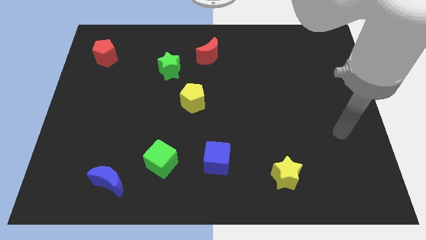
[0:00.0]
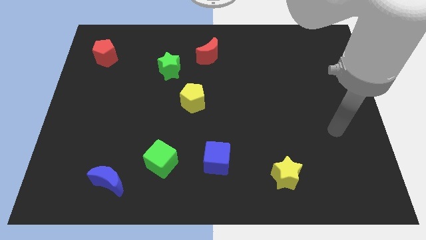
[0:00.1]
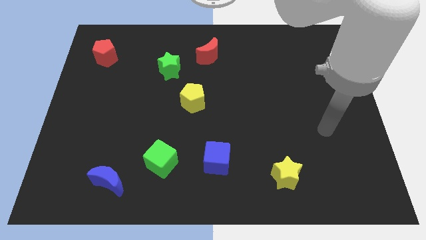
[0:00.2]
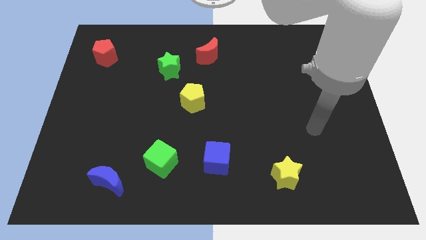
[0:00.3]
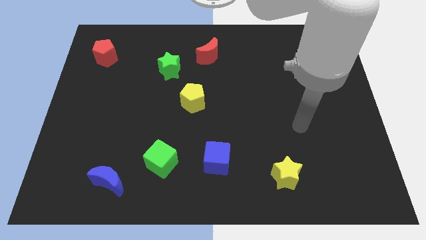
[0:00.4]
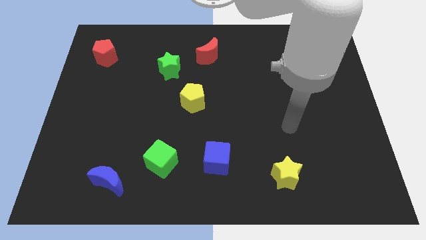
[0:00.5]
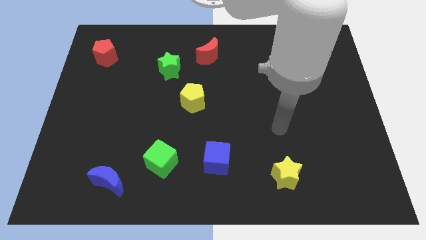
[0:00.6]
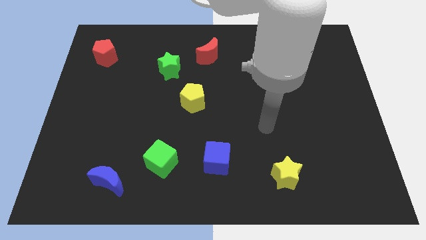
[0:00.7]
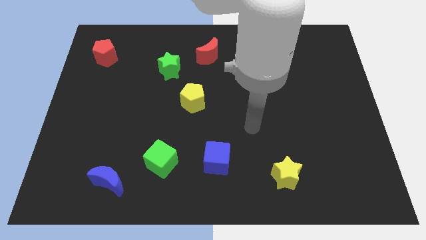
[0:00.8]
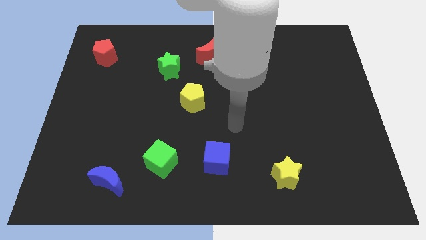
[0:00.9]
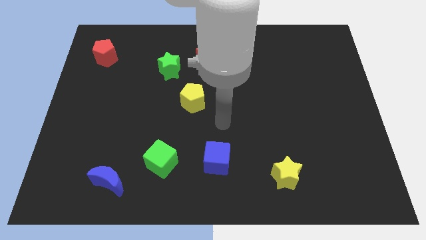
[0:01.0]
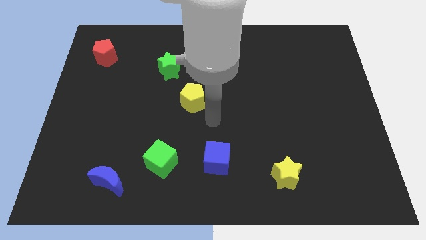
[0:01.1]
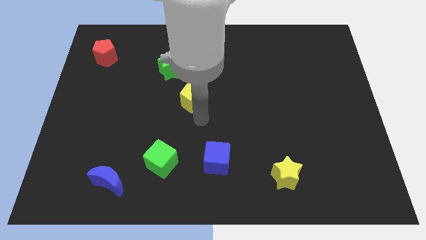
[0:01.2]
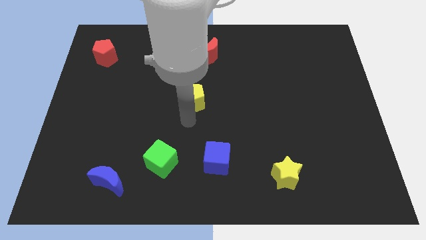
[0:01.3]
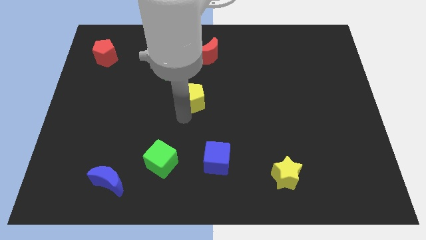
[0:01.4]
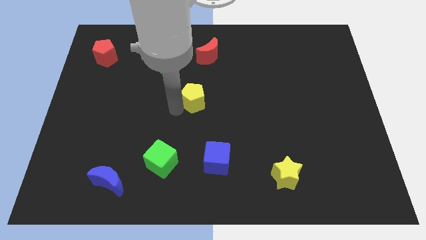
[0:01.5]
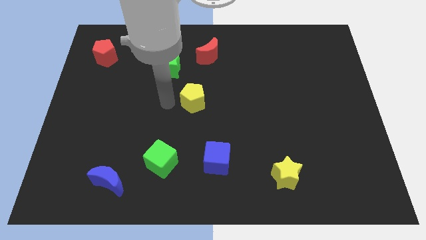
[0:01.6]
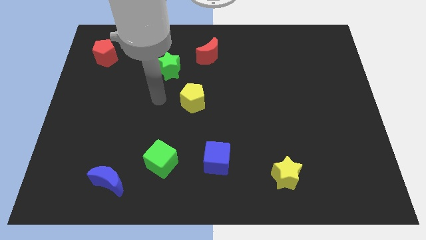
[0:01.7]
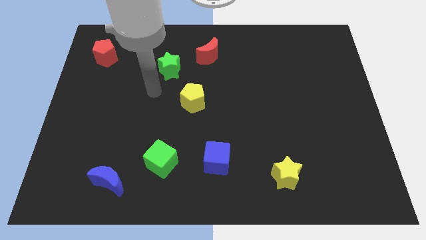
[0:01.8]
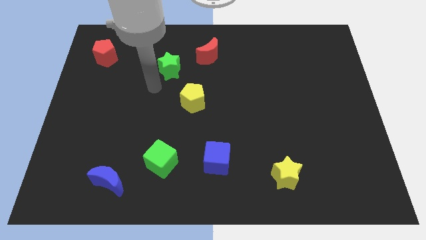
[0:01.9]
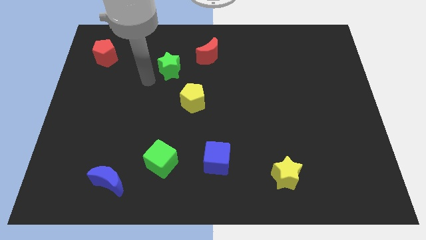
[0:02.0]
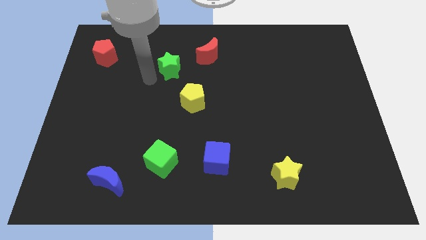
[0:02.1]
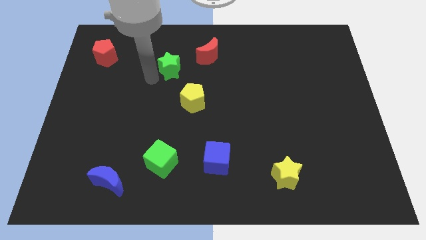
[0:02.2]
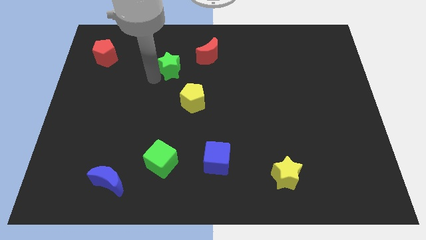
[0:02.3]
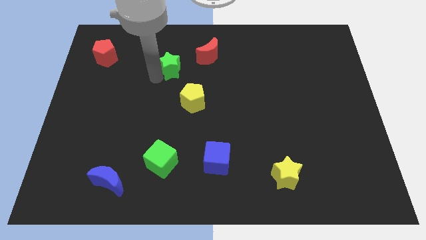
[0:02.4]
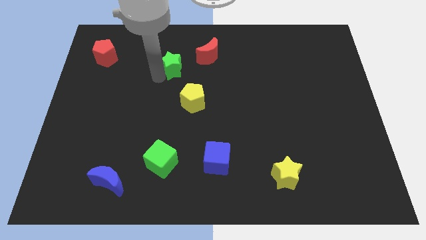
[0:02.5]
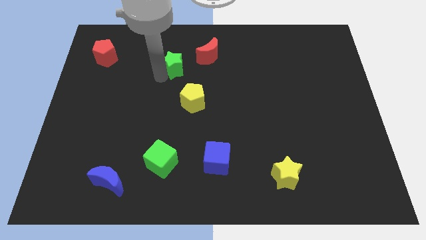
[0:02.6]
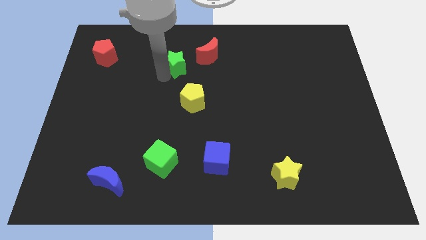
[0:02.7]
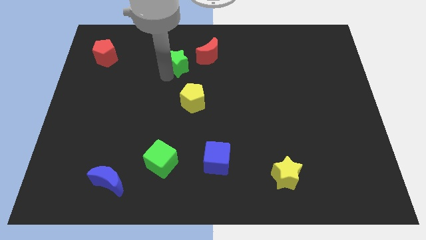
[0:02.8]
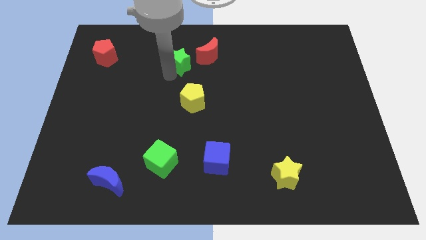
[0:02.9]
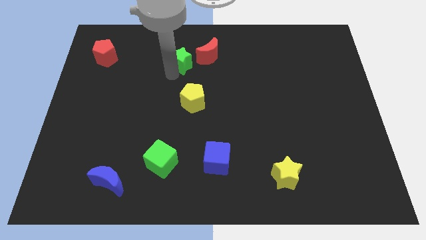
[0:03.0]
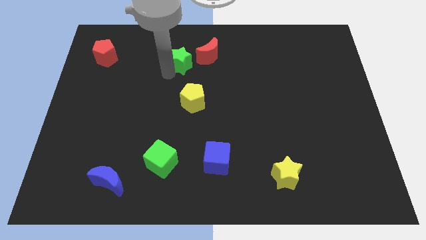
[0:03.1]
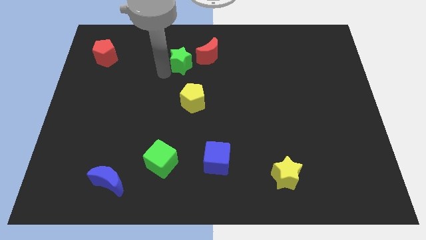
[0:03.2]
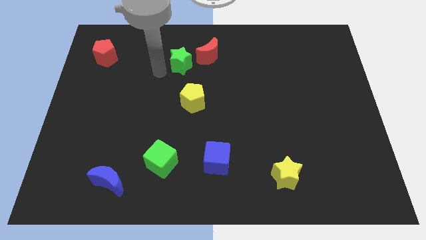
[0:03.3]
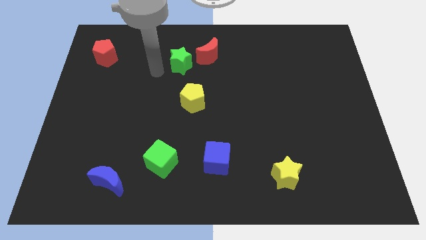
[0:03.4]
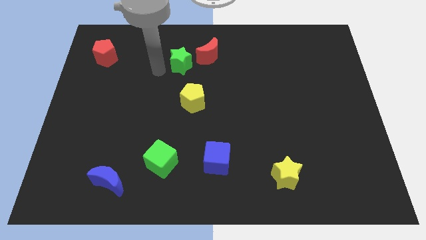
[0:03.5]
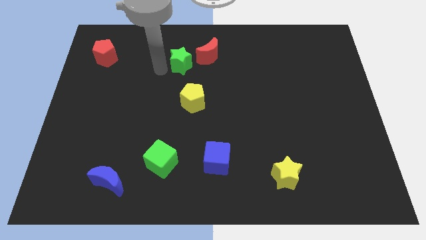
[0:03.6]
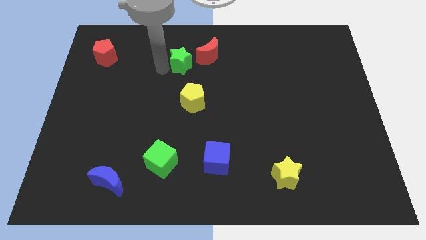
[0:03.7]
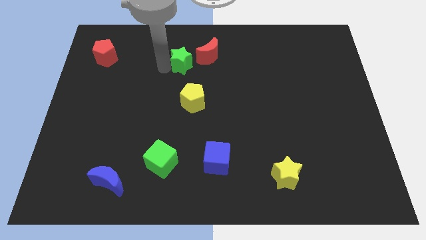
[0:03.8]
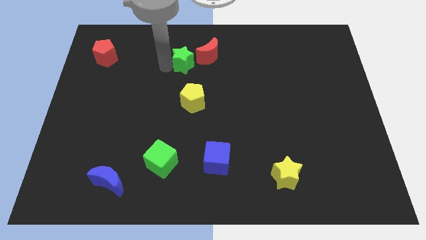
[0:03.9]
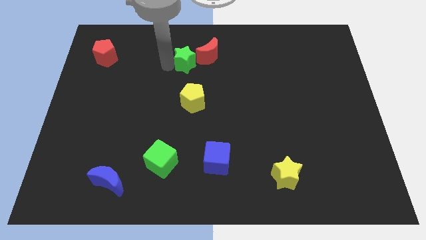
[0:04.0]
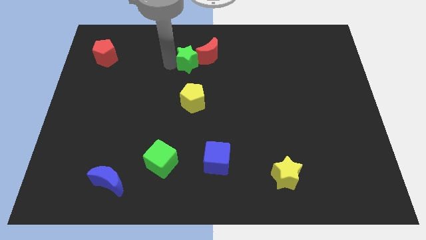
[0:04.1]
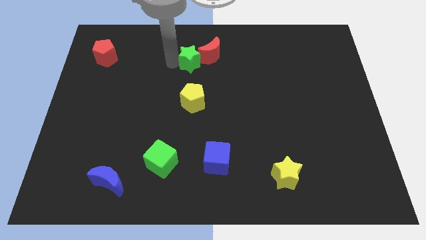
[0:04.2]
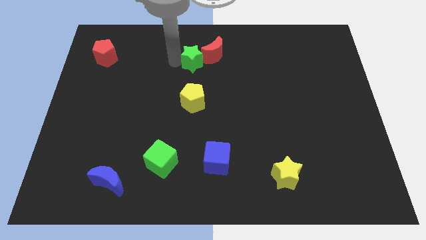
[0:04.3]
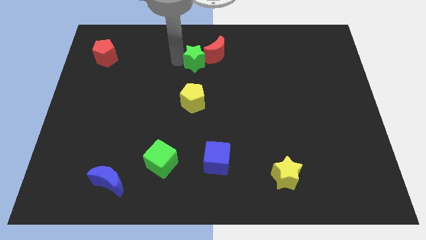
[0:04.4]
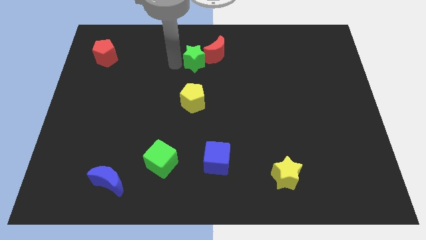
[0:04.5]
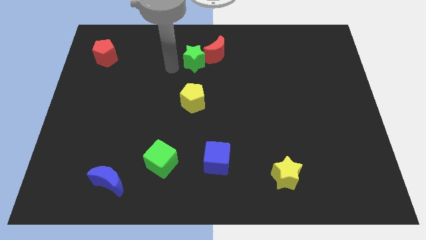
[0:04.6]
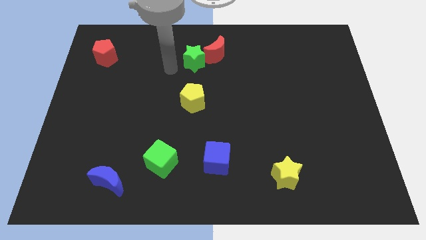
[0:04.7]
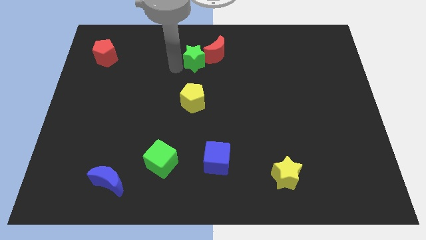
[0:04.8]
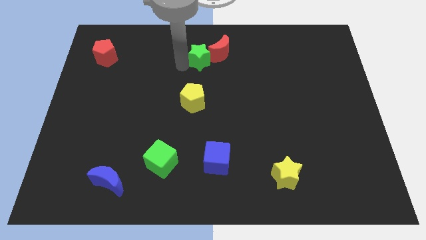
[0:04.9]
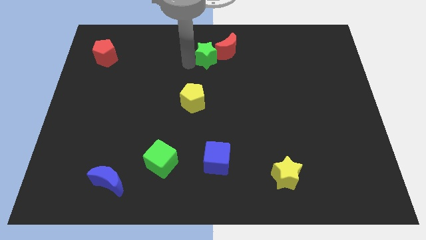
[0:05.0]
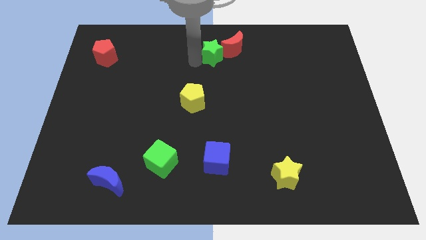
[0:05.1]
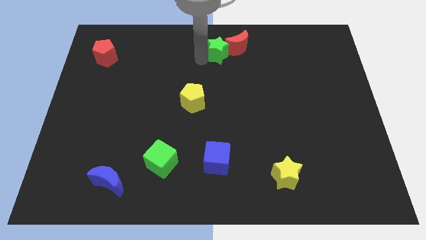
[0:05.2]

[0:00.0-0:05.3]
put the green star next to the red moon

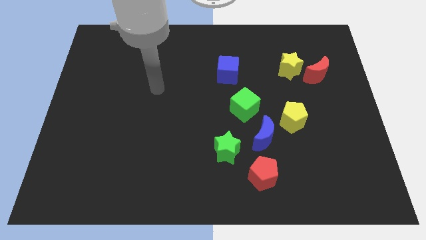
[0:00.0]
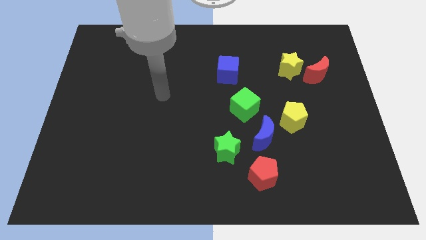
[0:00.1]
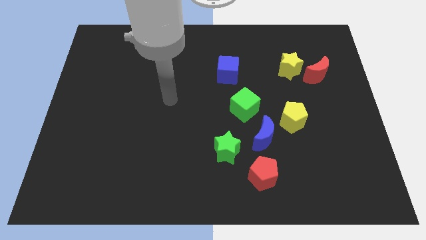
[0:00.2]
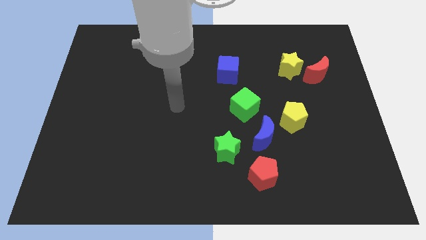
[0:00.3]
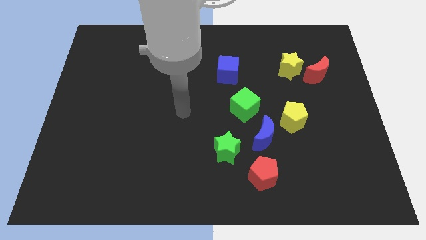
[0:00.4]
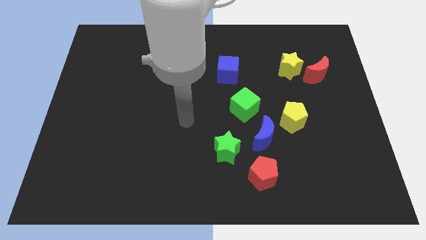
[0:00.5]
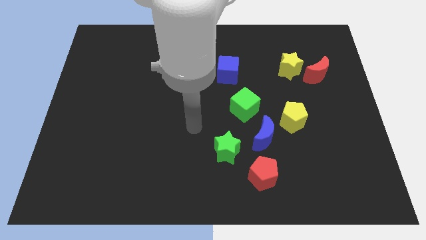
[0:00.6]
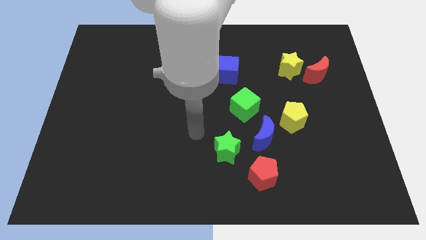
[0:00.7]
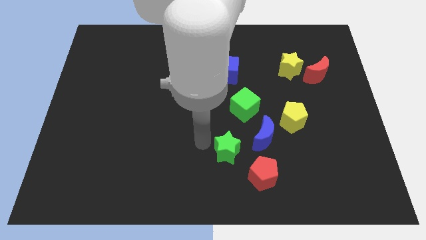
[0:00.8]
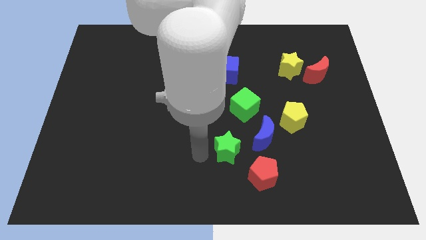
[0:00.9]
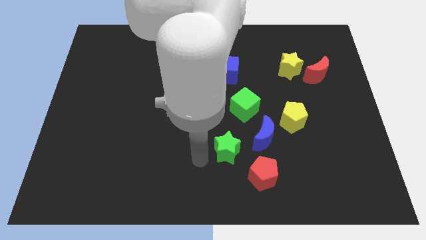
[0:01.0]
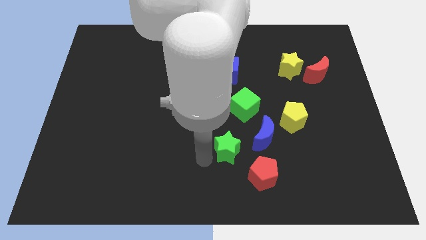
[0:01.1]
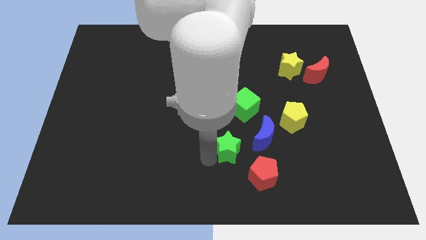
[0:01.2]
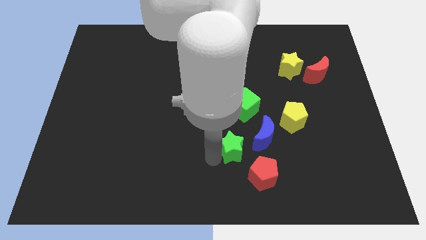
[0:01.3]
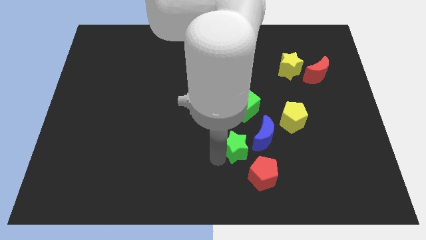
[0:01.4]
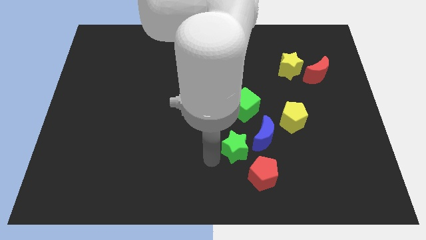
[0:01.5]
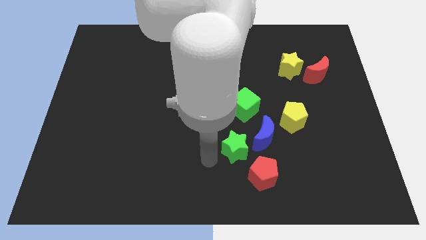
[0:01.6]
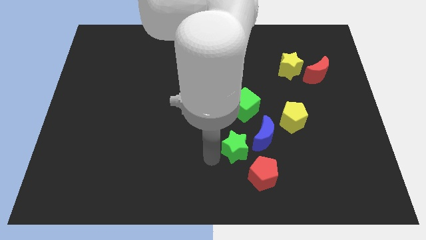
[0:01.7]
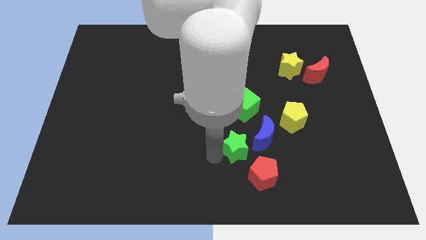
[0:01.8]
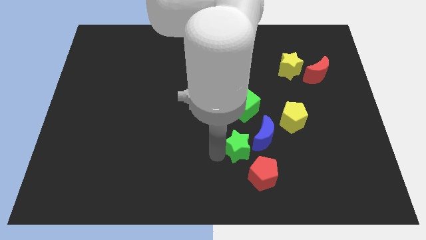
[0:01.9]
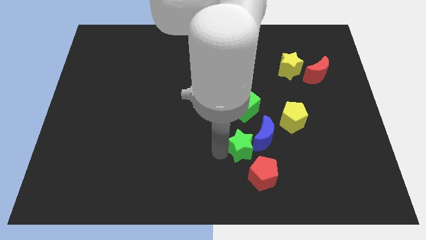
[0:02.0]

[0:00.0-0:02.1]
put the green star next to the blue moon
